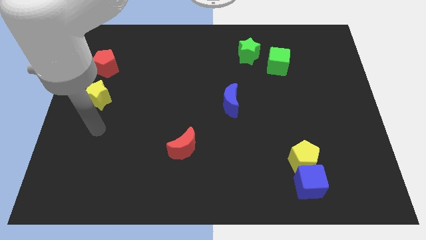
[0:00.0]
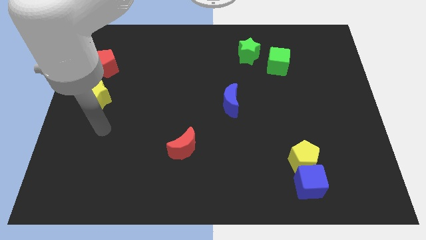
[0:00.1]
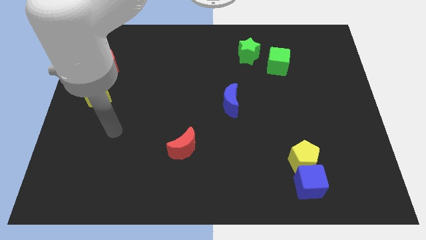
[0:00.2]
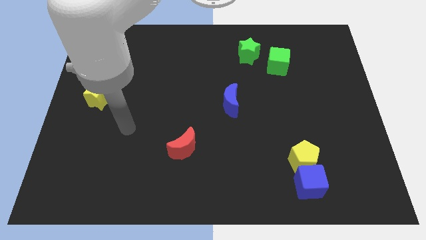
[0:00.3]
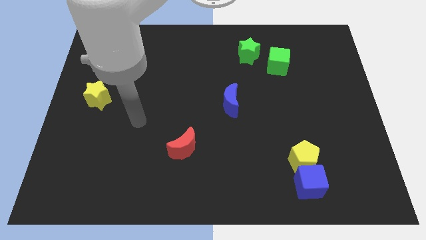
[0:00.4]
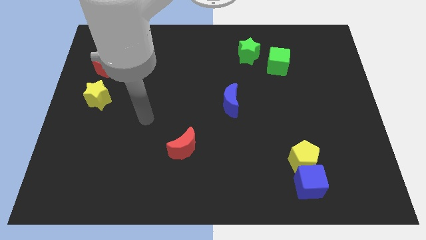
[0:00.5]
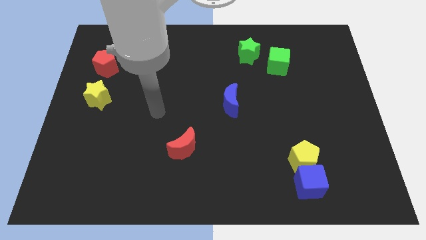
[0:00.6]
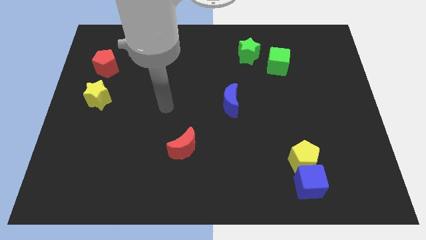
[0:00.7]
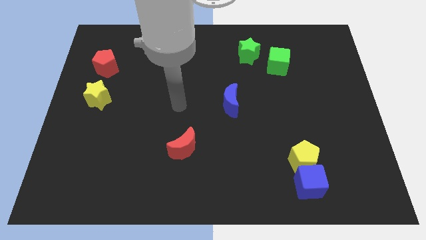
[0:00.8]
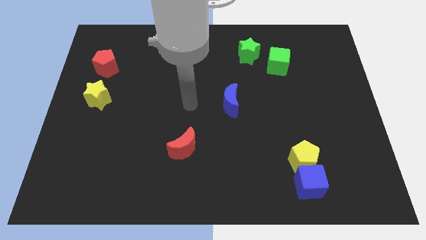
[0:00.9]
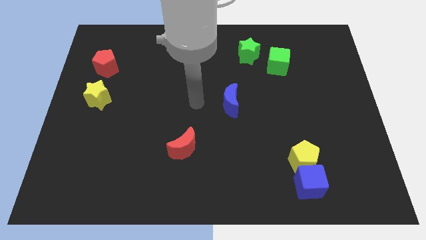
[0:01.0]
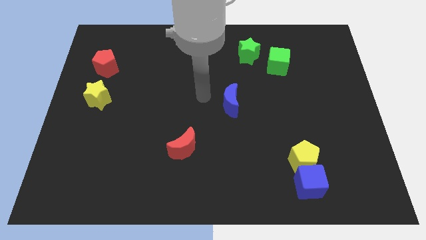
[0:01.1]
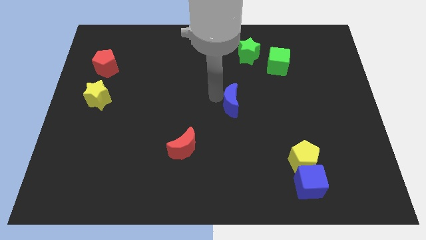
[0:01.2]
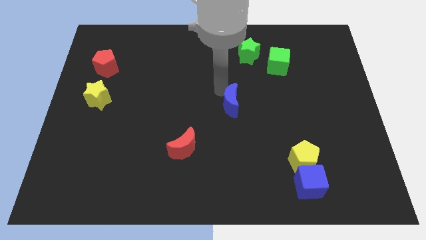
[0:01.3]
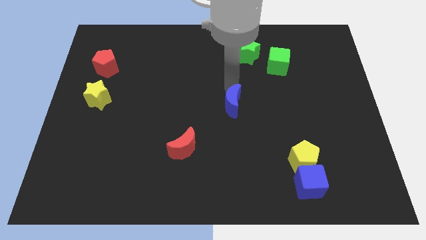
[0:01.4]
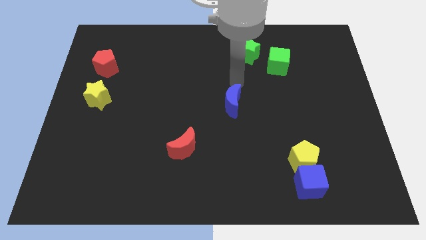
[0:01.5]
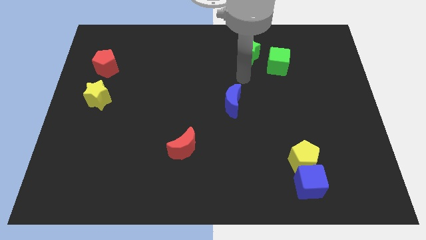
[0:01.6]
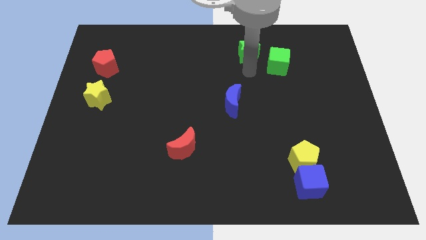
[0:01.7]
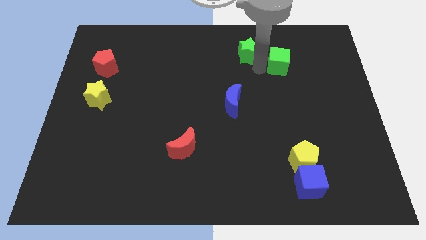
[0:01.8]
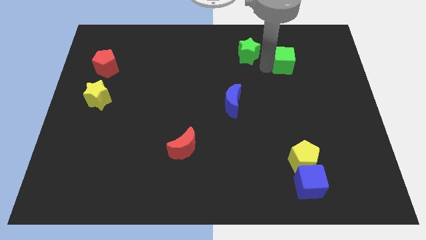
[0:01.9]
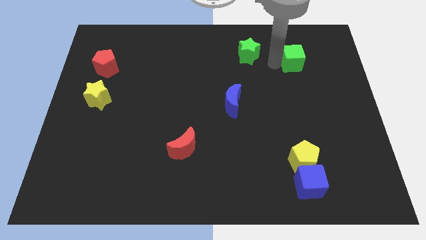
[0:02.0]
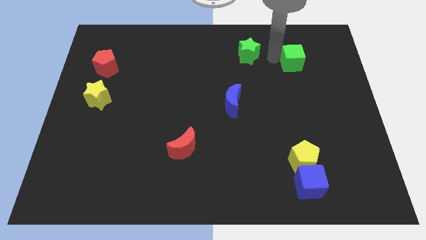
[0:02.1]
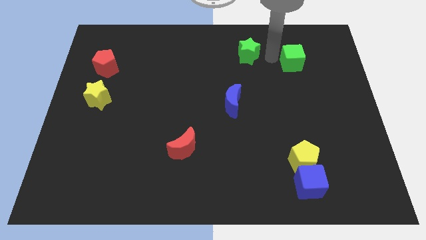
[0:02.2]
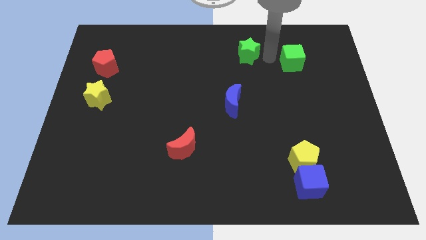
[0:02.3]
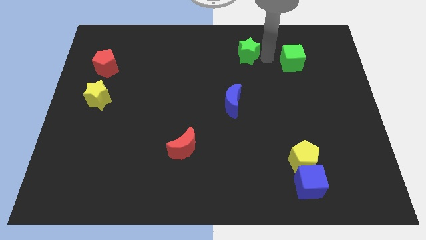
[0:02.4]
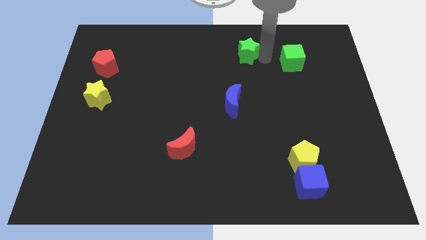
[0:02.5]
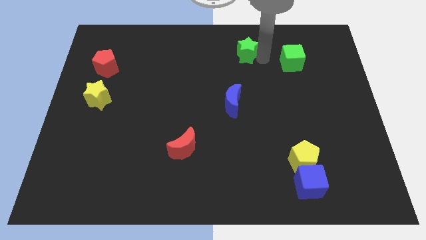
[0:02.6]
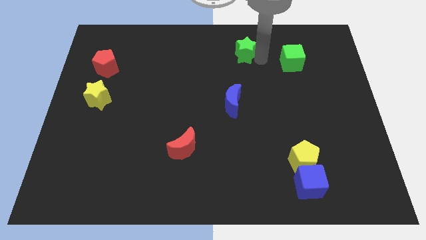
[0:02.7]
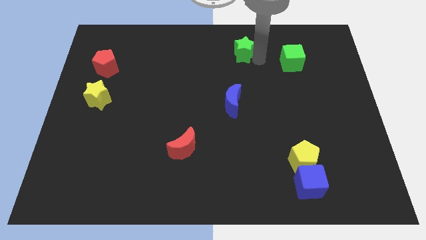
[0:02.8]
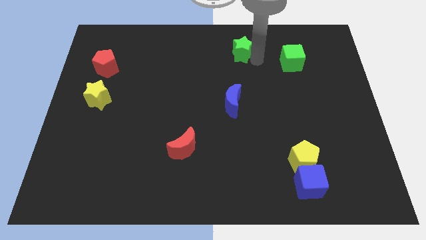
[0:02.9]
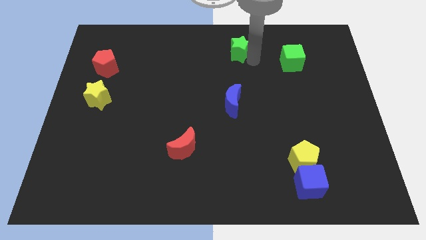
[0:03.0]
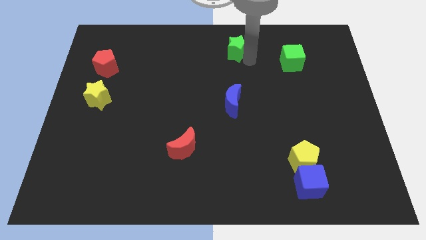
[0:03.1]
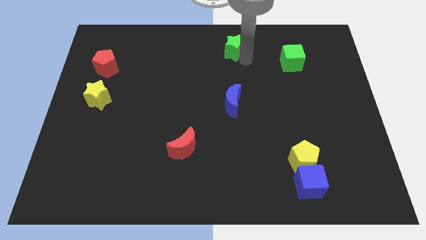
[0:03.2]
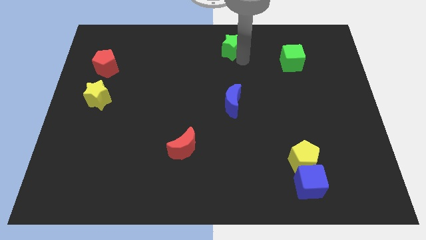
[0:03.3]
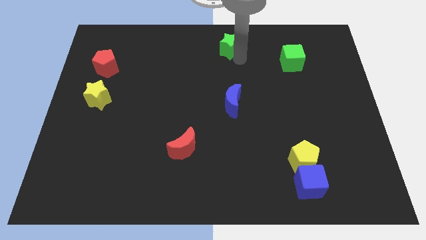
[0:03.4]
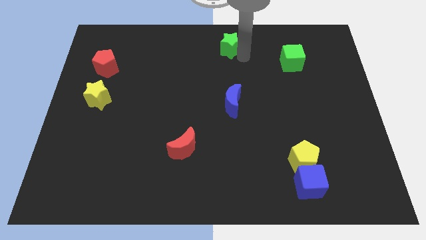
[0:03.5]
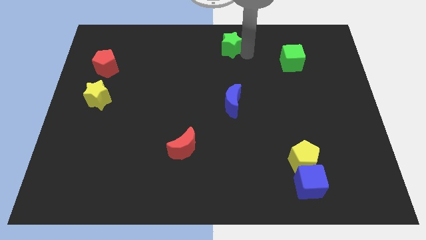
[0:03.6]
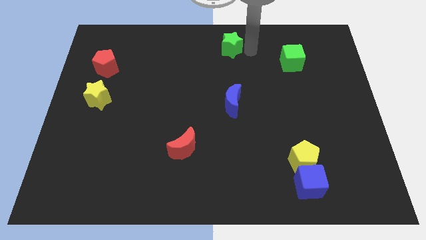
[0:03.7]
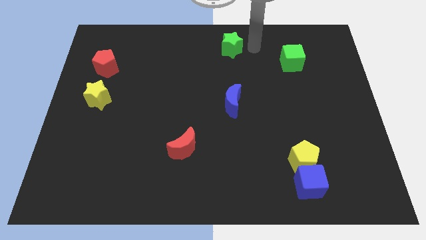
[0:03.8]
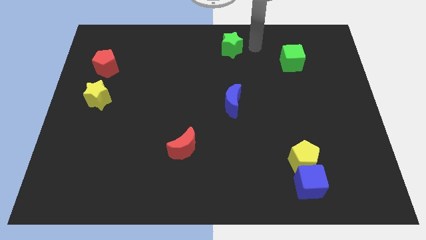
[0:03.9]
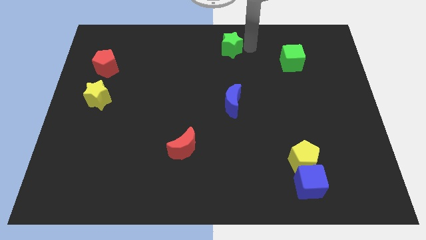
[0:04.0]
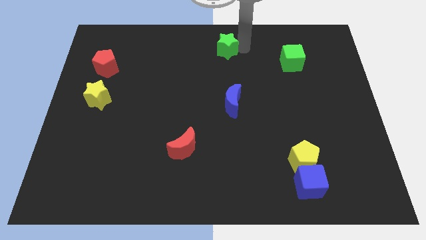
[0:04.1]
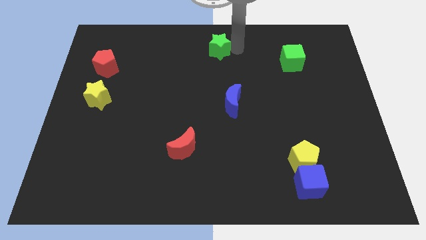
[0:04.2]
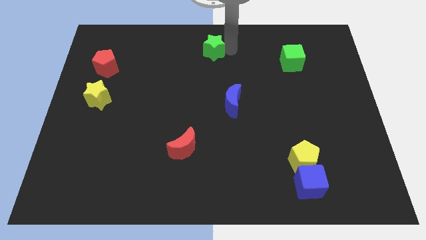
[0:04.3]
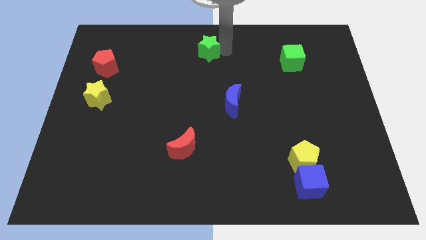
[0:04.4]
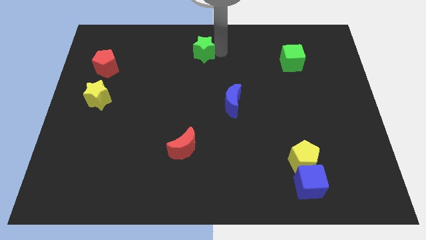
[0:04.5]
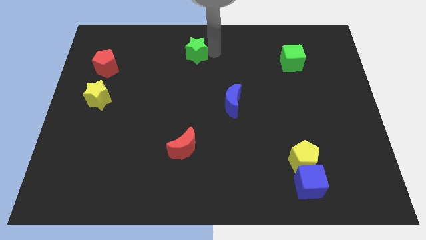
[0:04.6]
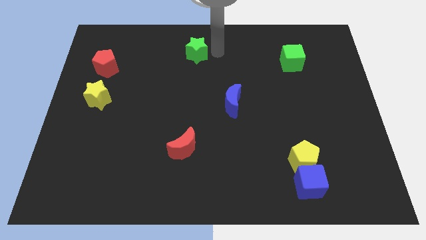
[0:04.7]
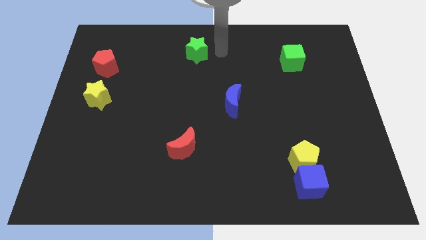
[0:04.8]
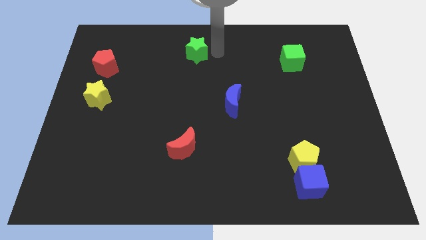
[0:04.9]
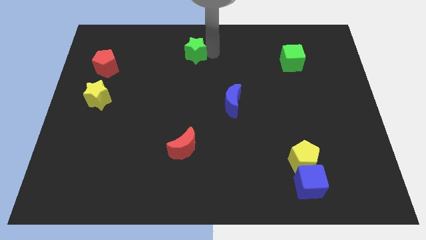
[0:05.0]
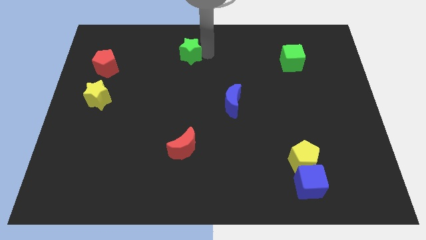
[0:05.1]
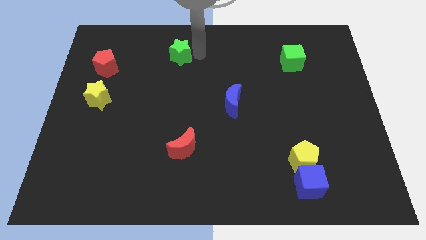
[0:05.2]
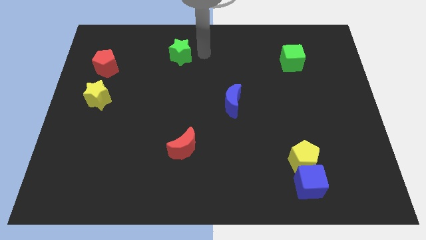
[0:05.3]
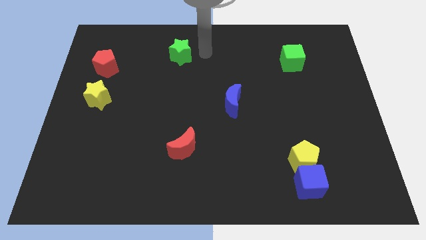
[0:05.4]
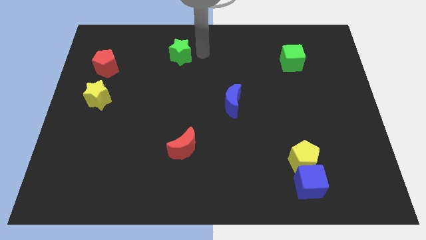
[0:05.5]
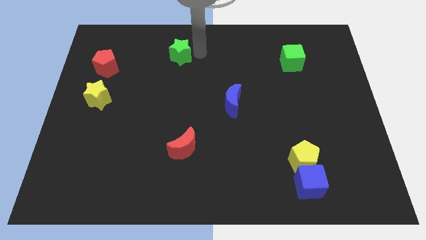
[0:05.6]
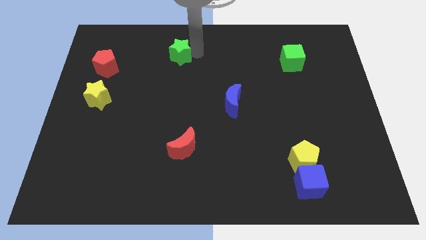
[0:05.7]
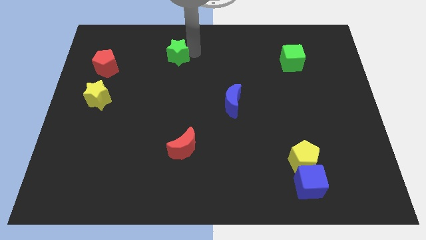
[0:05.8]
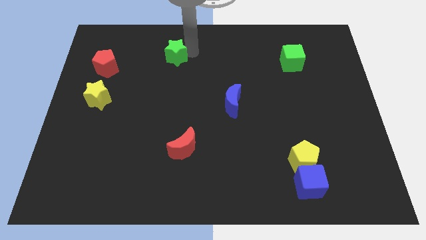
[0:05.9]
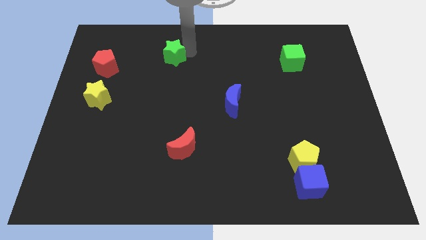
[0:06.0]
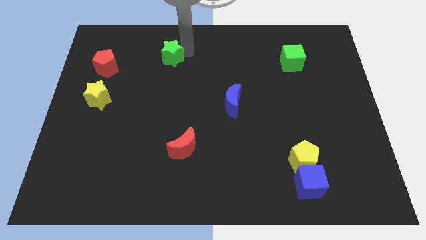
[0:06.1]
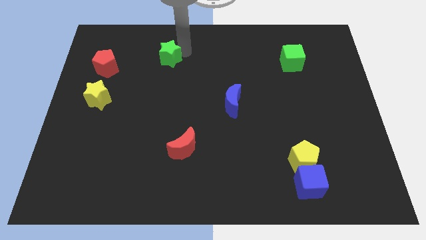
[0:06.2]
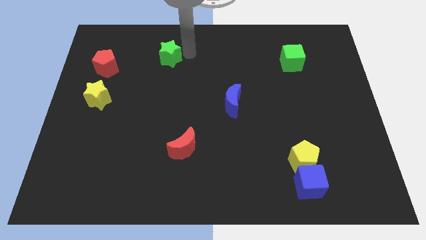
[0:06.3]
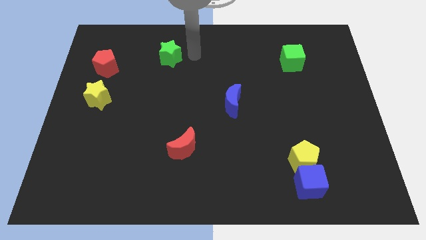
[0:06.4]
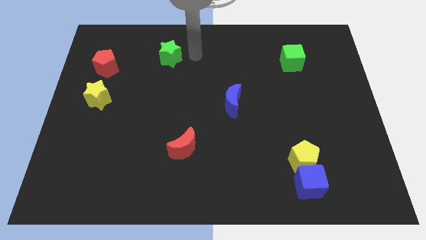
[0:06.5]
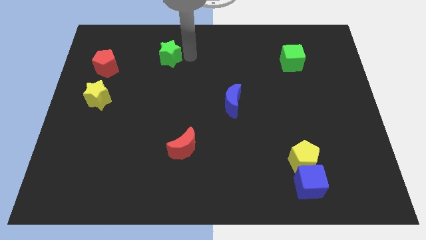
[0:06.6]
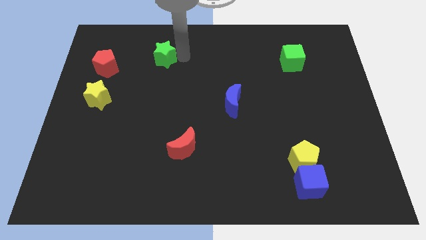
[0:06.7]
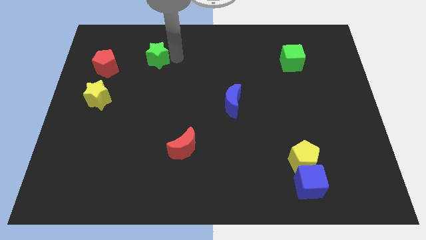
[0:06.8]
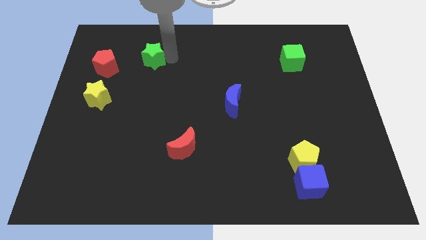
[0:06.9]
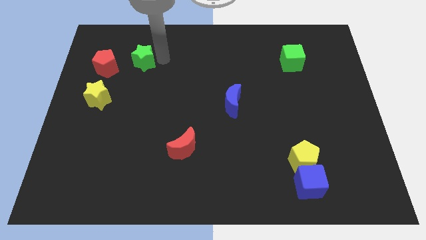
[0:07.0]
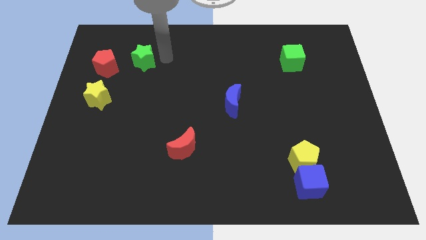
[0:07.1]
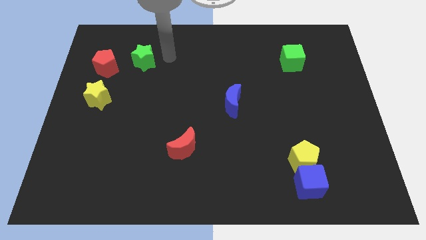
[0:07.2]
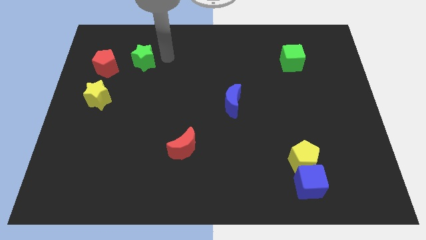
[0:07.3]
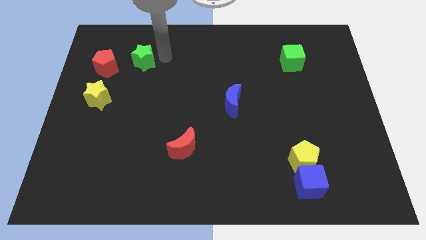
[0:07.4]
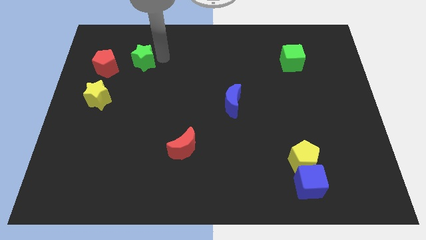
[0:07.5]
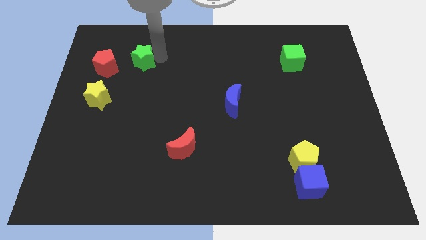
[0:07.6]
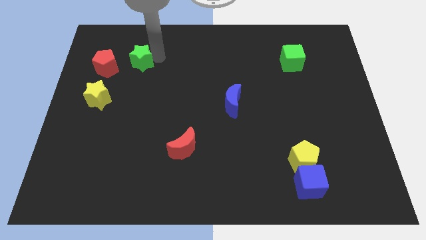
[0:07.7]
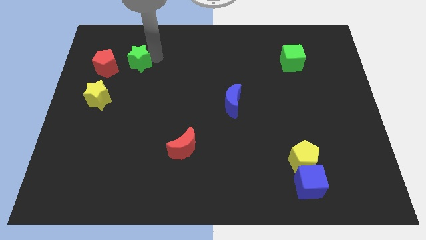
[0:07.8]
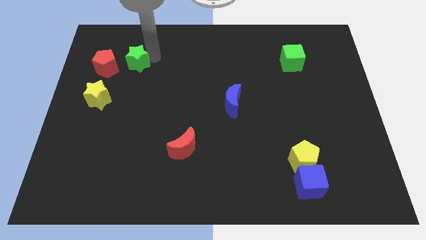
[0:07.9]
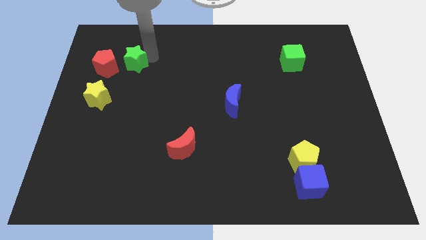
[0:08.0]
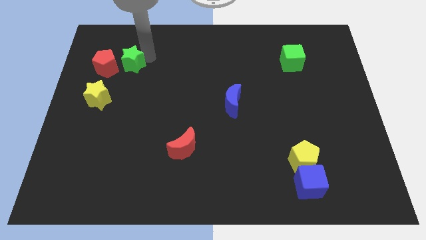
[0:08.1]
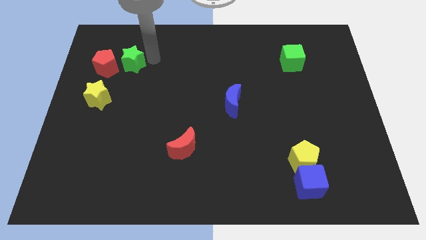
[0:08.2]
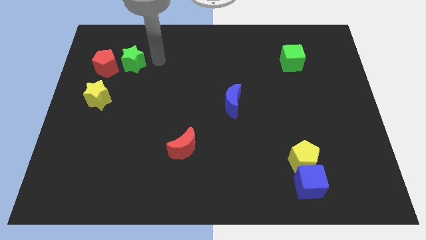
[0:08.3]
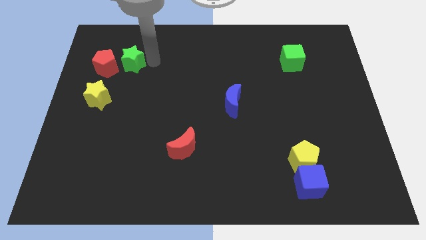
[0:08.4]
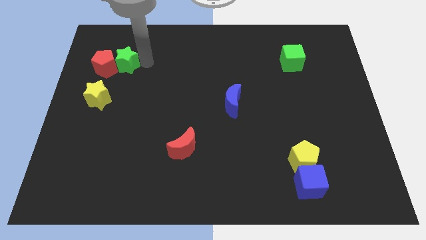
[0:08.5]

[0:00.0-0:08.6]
slide the green star to the red pentagon
